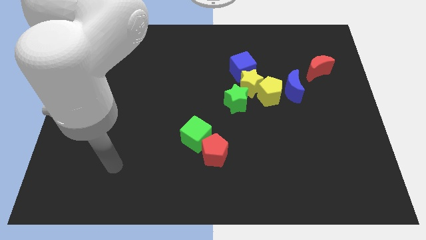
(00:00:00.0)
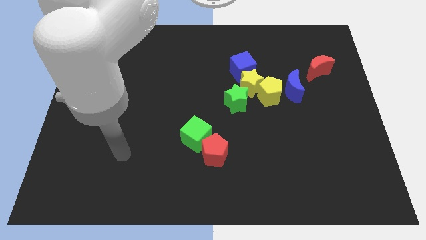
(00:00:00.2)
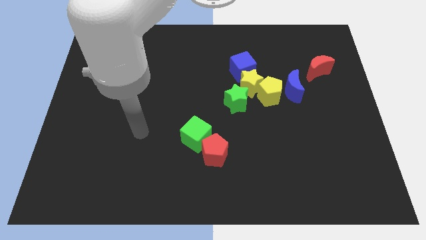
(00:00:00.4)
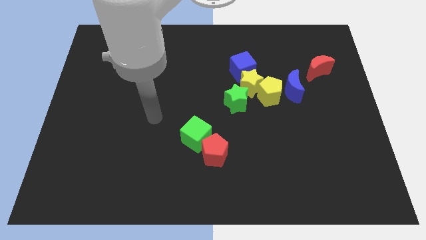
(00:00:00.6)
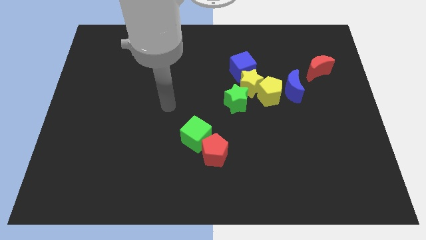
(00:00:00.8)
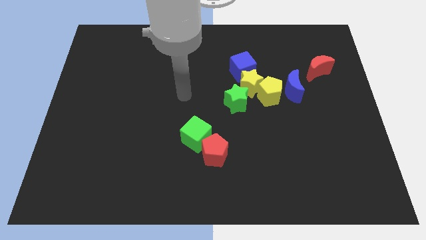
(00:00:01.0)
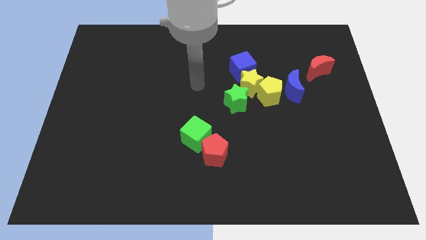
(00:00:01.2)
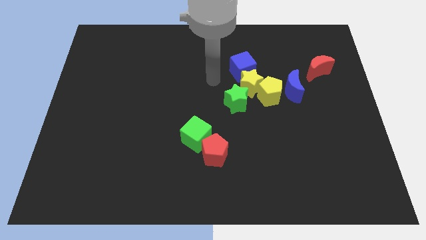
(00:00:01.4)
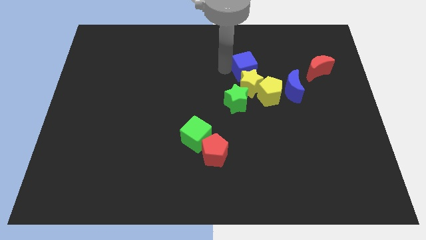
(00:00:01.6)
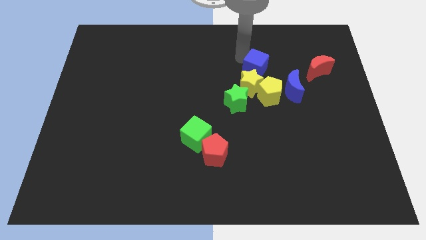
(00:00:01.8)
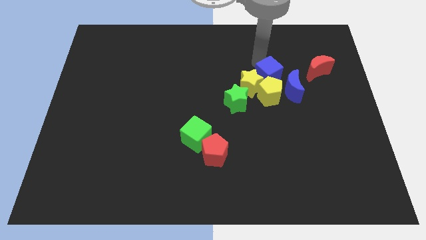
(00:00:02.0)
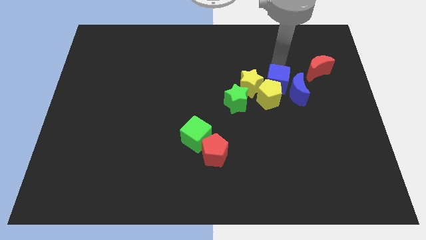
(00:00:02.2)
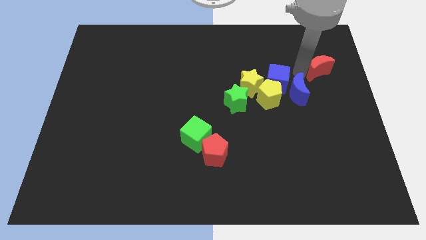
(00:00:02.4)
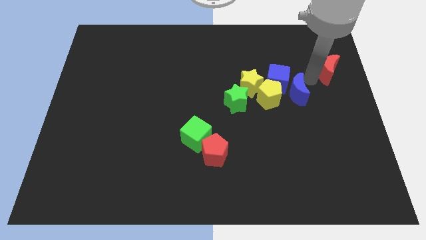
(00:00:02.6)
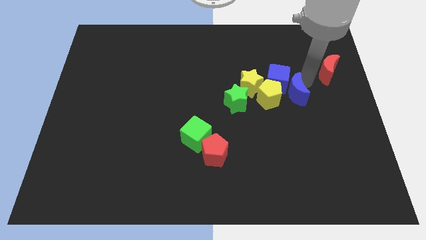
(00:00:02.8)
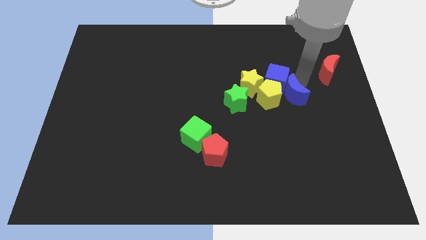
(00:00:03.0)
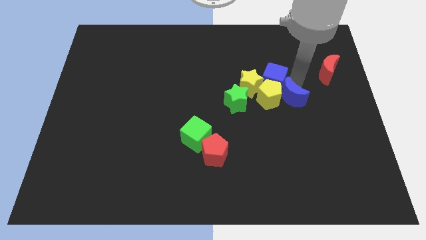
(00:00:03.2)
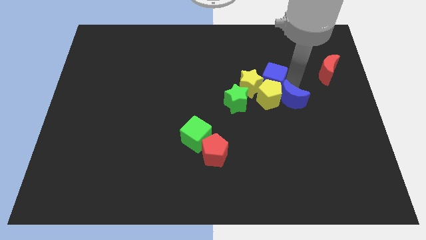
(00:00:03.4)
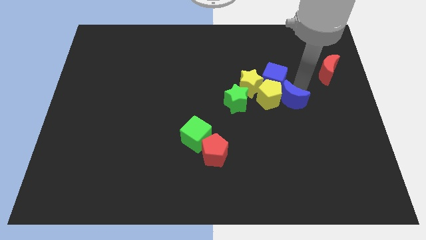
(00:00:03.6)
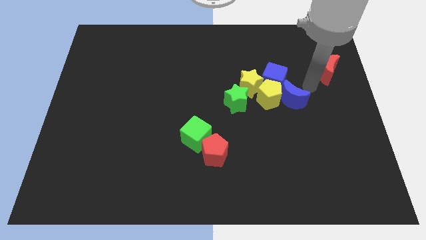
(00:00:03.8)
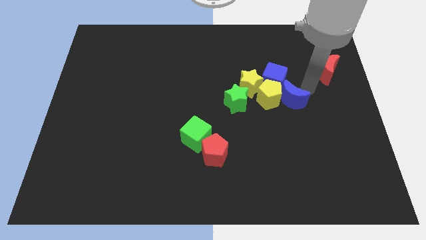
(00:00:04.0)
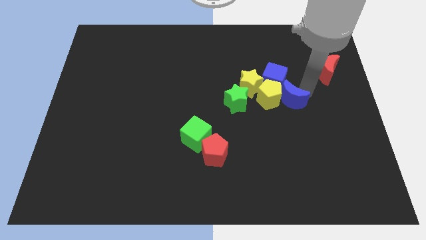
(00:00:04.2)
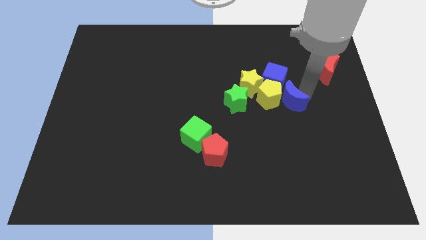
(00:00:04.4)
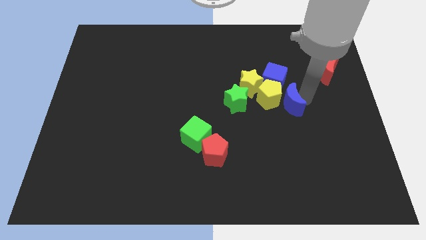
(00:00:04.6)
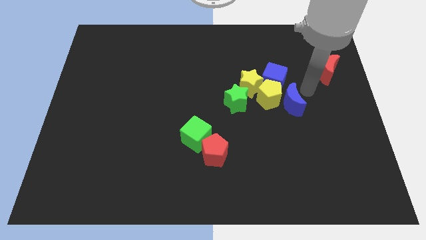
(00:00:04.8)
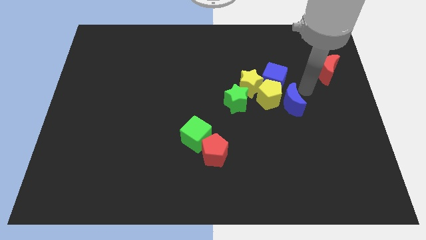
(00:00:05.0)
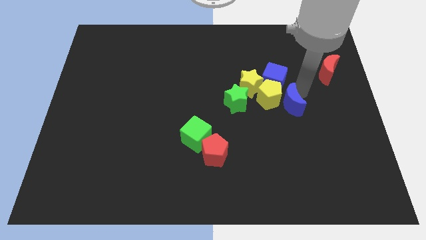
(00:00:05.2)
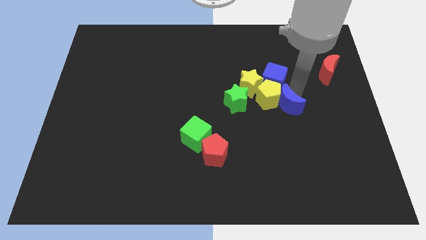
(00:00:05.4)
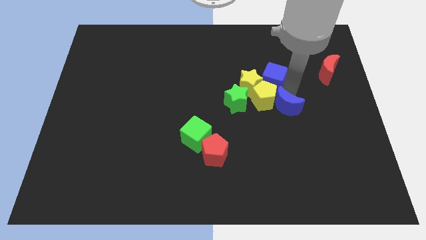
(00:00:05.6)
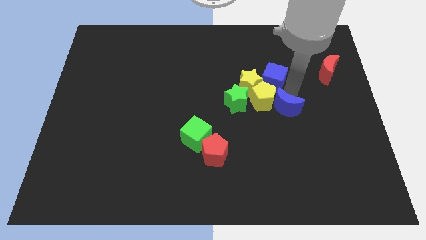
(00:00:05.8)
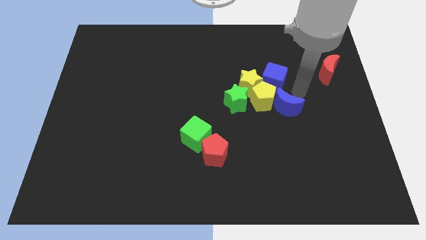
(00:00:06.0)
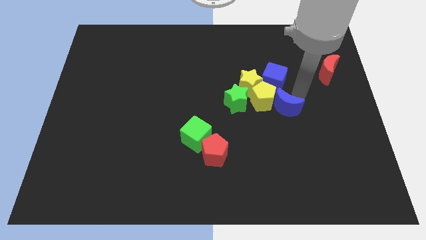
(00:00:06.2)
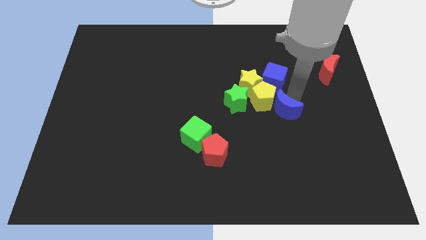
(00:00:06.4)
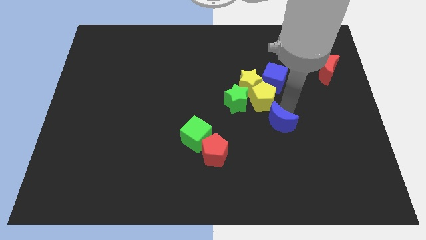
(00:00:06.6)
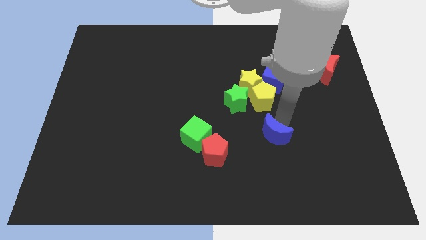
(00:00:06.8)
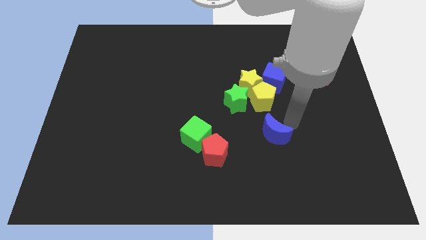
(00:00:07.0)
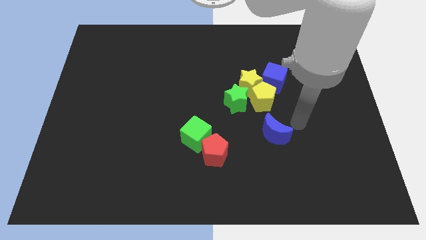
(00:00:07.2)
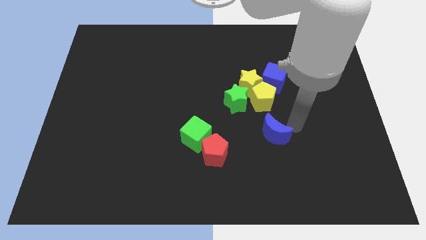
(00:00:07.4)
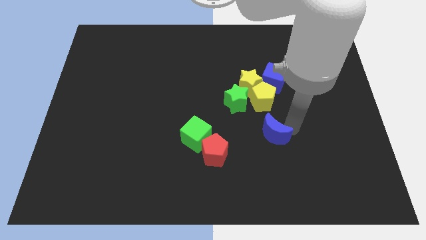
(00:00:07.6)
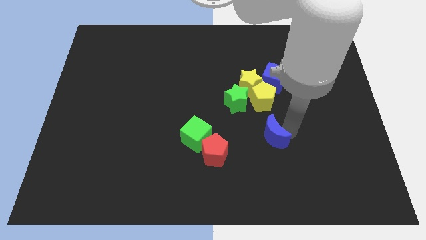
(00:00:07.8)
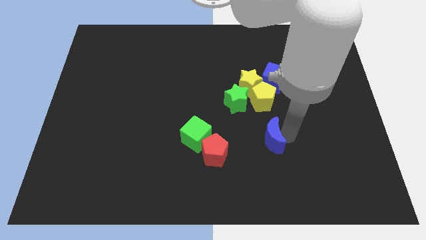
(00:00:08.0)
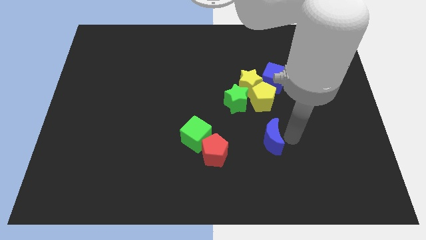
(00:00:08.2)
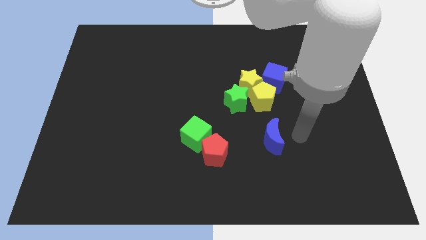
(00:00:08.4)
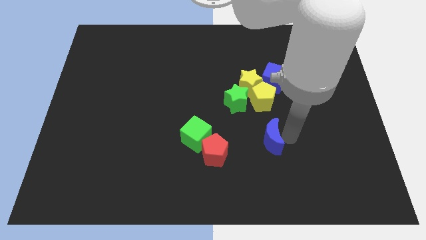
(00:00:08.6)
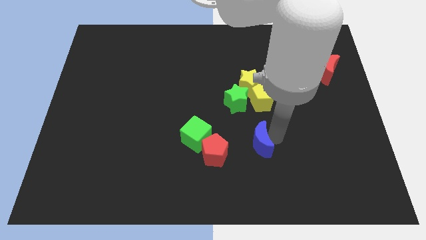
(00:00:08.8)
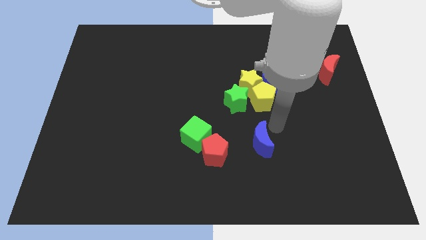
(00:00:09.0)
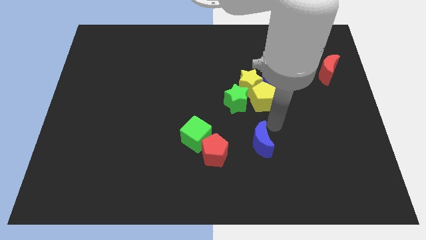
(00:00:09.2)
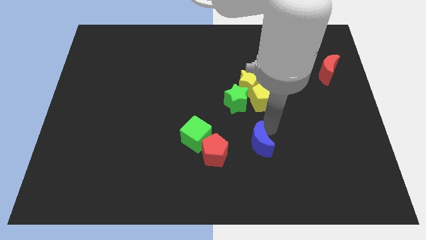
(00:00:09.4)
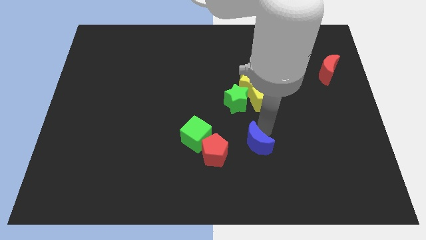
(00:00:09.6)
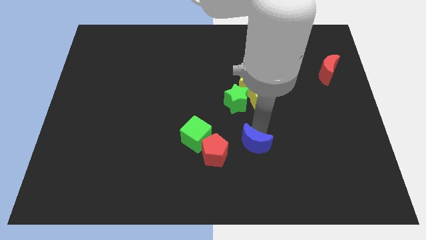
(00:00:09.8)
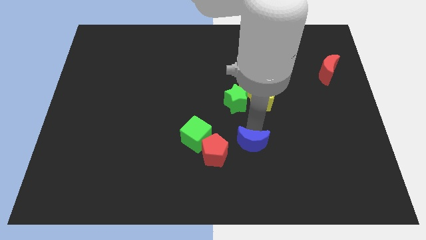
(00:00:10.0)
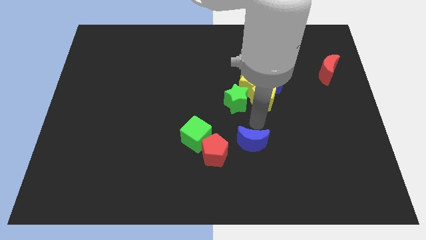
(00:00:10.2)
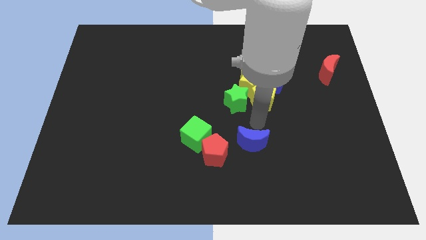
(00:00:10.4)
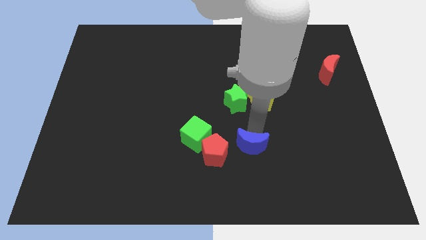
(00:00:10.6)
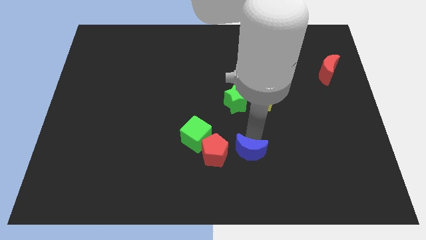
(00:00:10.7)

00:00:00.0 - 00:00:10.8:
slide the blue moon downwards and left diagonally

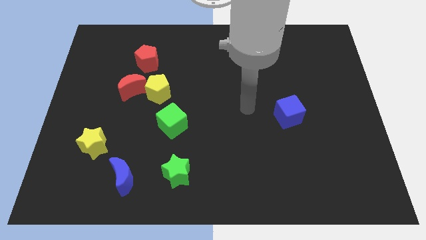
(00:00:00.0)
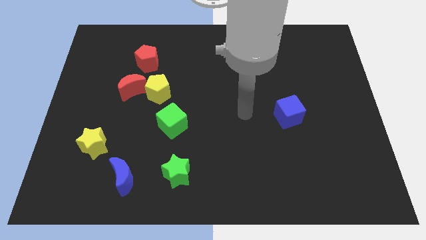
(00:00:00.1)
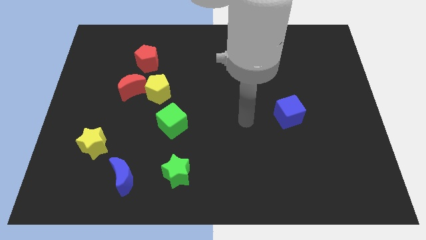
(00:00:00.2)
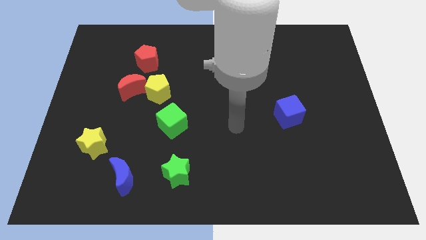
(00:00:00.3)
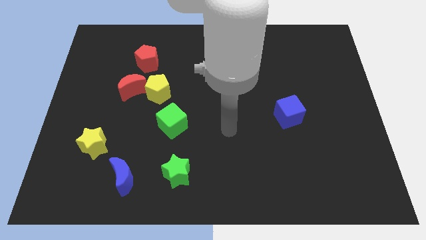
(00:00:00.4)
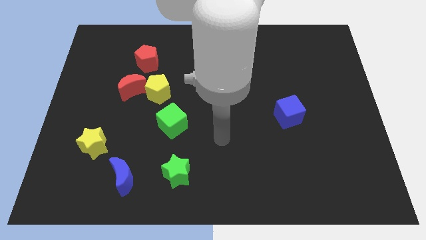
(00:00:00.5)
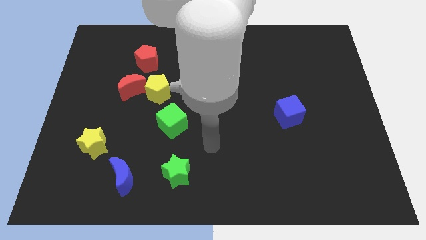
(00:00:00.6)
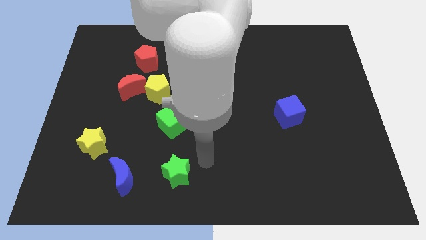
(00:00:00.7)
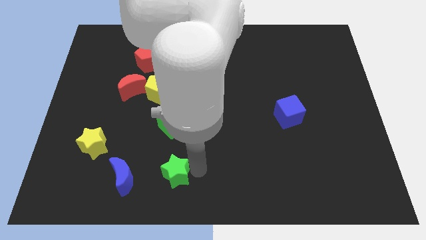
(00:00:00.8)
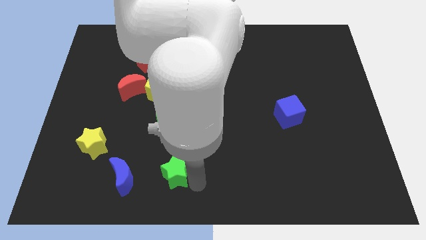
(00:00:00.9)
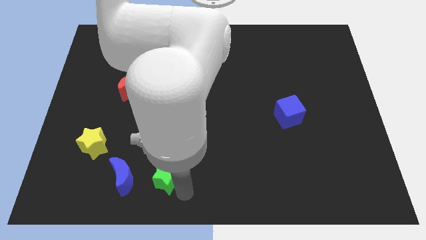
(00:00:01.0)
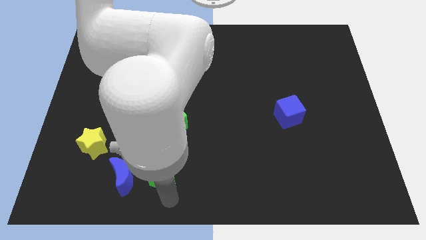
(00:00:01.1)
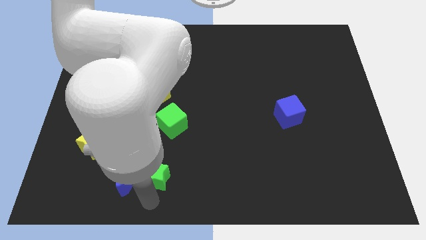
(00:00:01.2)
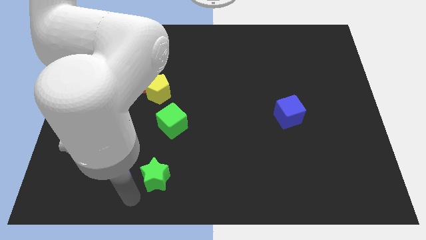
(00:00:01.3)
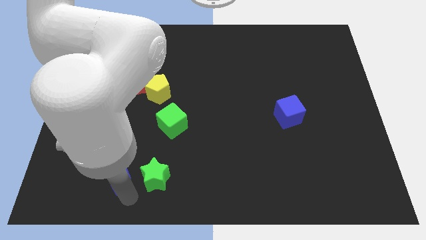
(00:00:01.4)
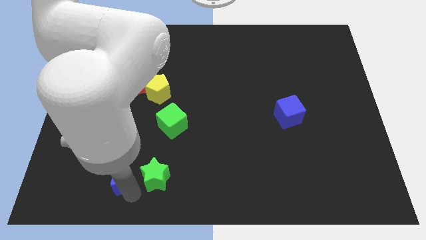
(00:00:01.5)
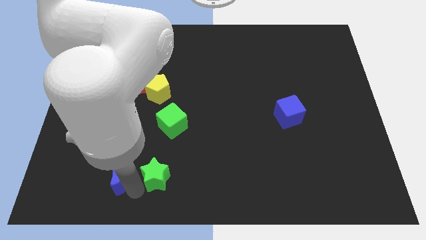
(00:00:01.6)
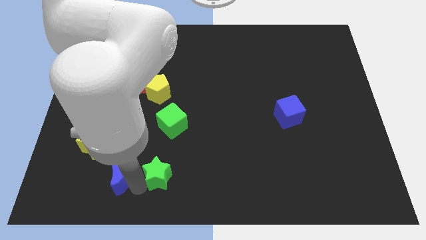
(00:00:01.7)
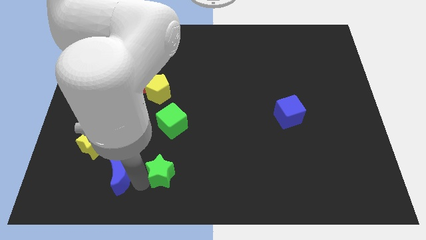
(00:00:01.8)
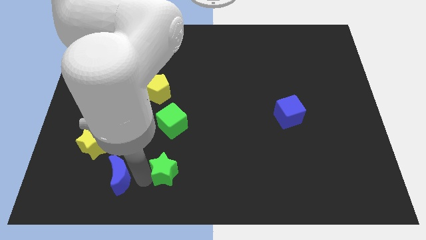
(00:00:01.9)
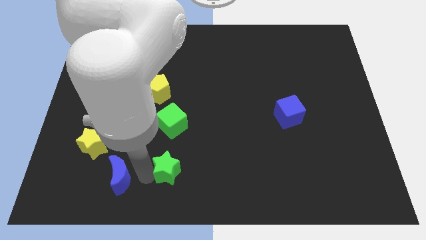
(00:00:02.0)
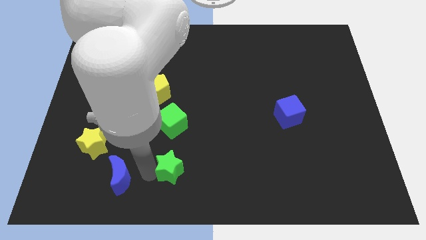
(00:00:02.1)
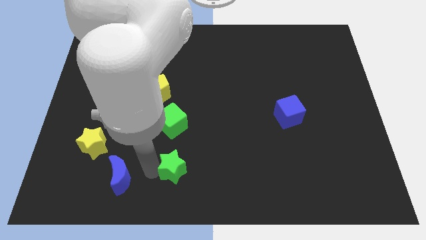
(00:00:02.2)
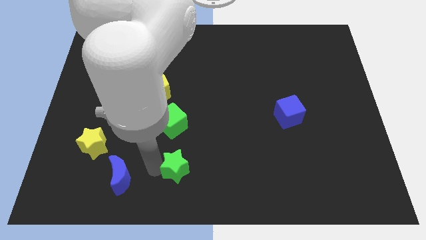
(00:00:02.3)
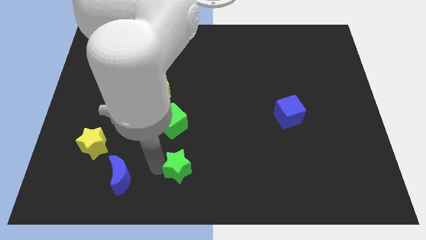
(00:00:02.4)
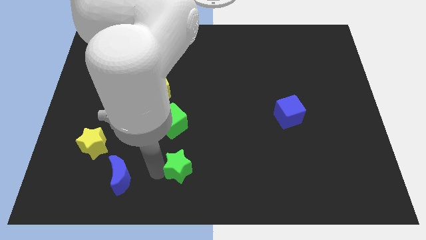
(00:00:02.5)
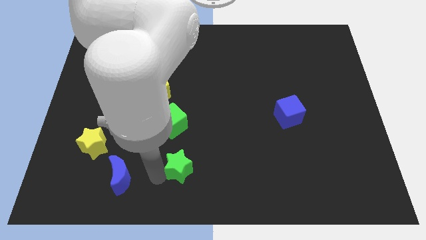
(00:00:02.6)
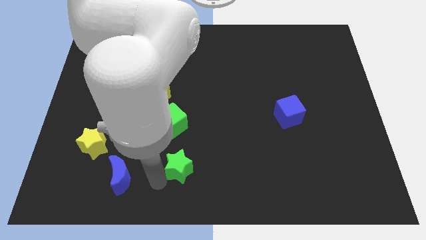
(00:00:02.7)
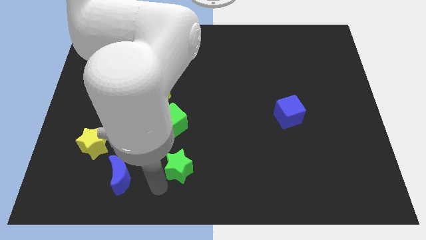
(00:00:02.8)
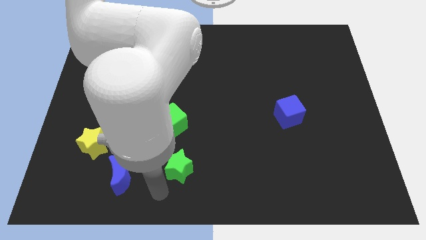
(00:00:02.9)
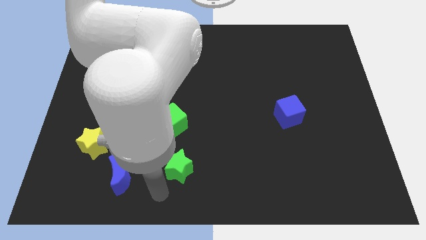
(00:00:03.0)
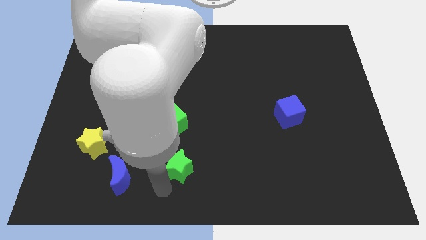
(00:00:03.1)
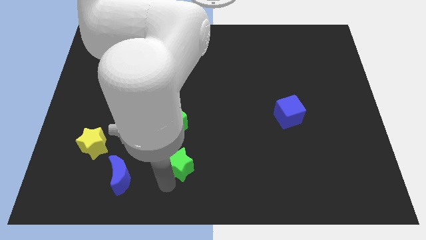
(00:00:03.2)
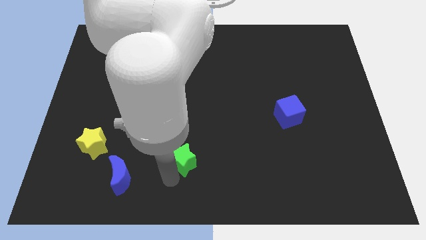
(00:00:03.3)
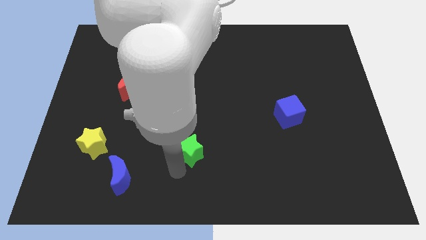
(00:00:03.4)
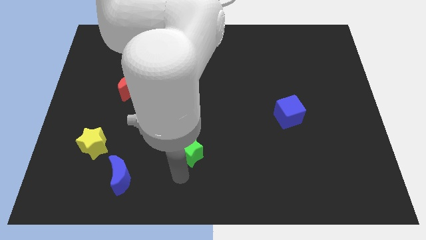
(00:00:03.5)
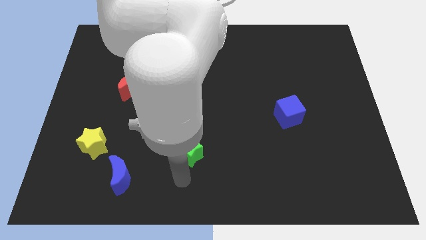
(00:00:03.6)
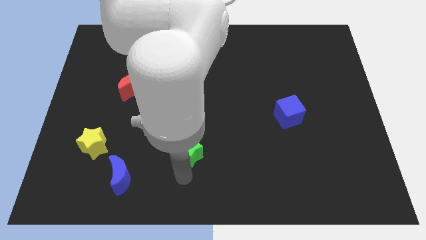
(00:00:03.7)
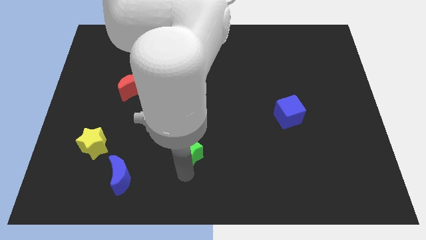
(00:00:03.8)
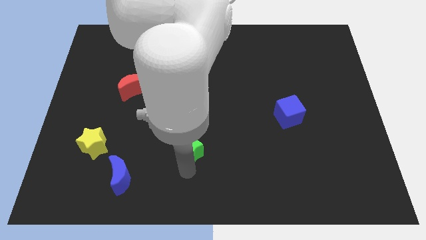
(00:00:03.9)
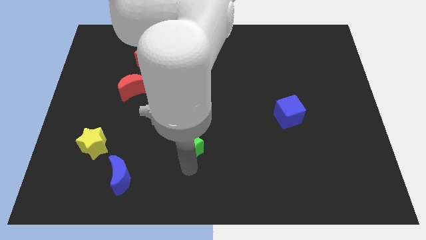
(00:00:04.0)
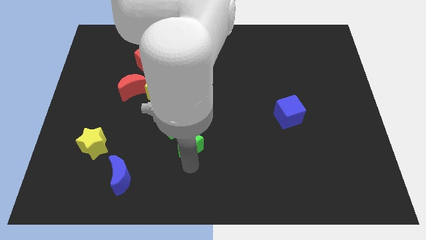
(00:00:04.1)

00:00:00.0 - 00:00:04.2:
slightly push the green star upwards
